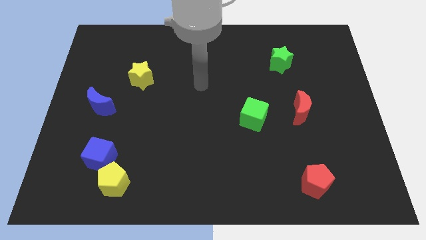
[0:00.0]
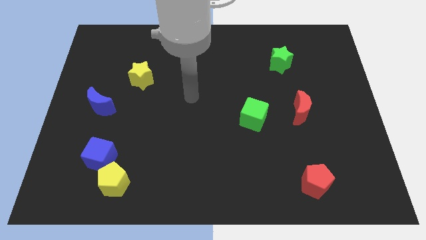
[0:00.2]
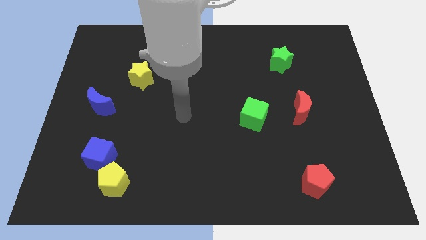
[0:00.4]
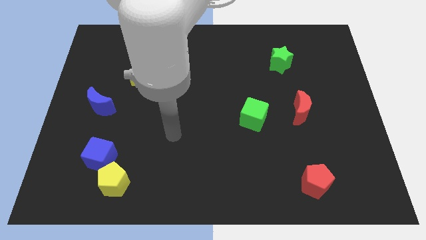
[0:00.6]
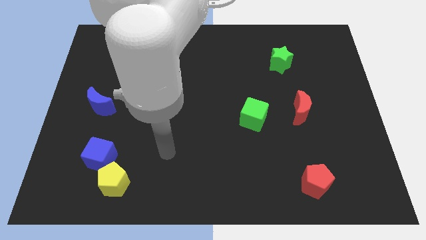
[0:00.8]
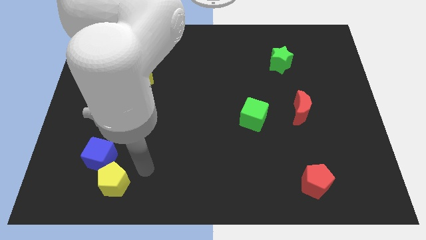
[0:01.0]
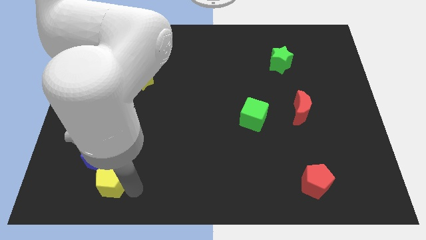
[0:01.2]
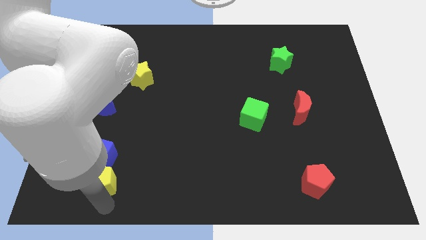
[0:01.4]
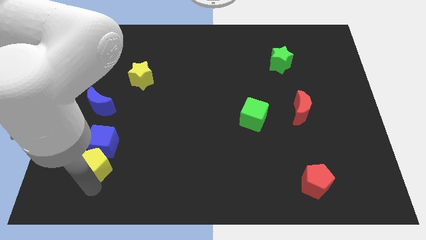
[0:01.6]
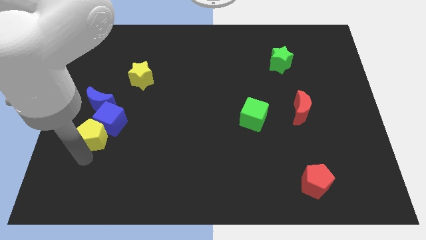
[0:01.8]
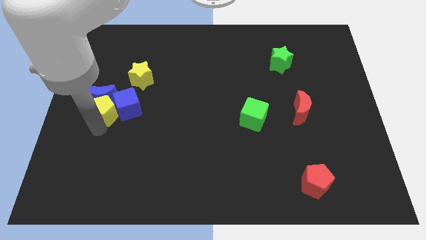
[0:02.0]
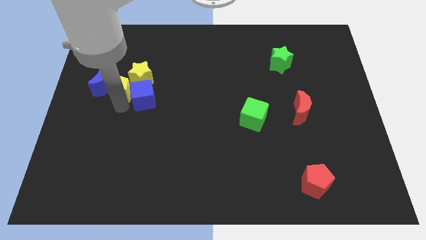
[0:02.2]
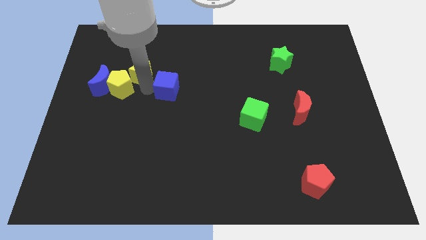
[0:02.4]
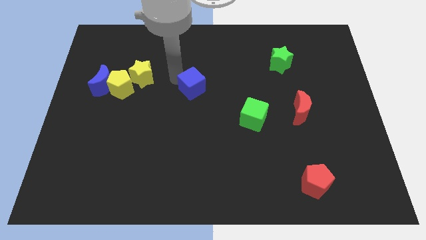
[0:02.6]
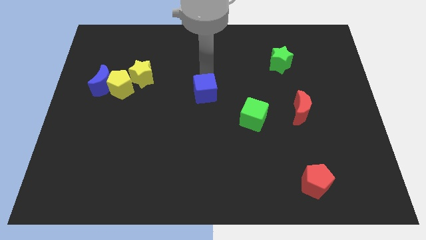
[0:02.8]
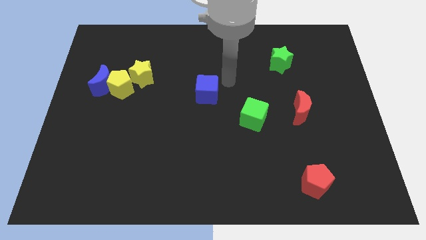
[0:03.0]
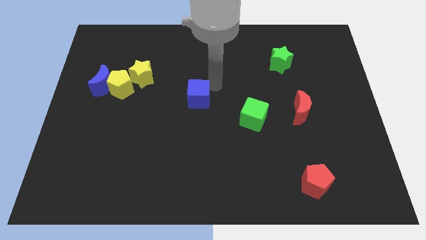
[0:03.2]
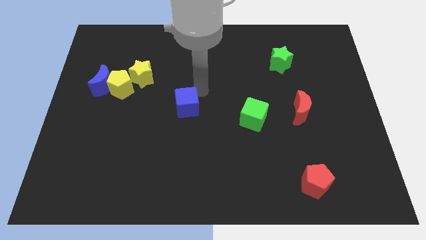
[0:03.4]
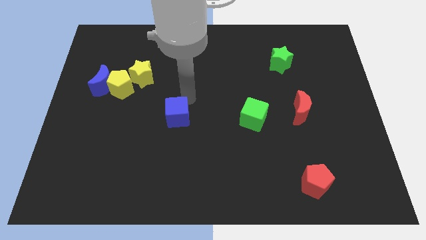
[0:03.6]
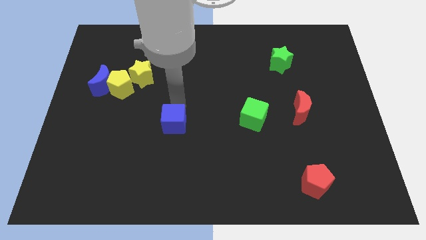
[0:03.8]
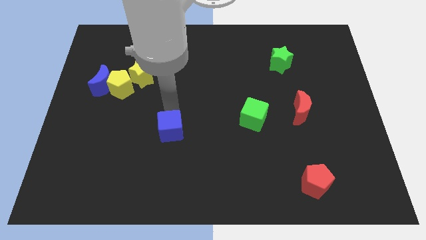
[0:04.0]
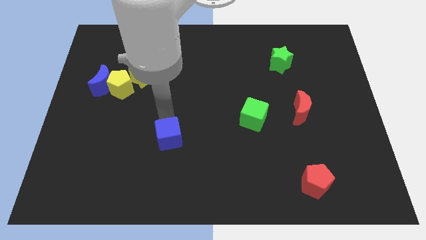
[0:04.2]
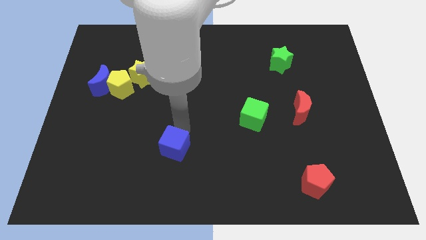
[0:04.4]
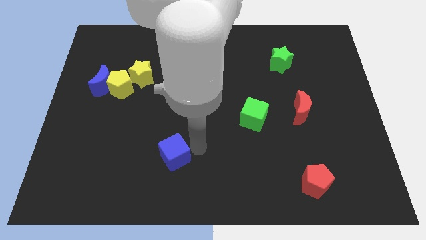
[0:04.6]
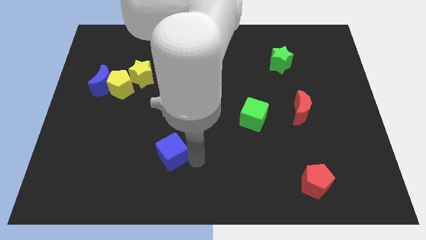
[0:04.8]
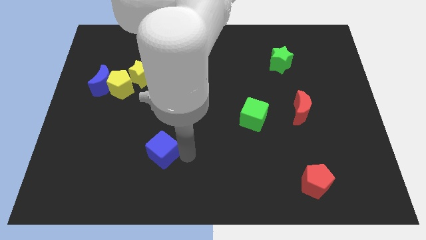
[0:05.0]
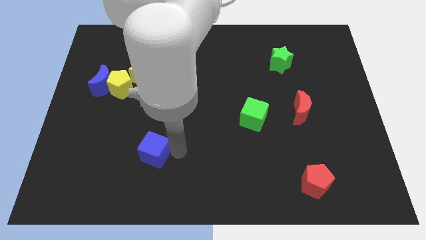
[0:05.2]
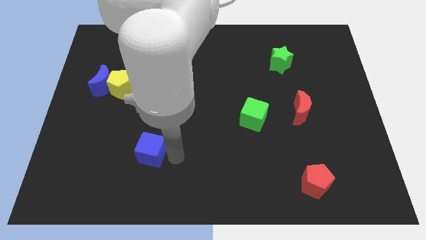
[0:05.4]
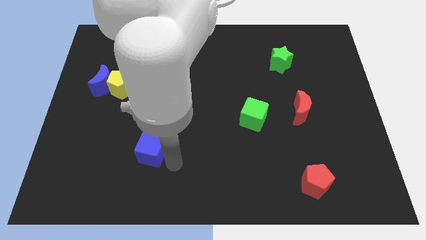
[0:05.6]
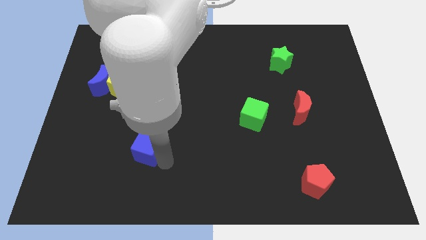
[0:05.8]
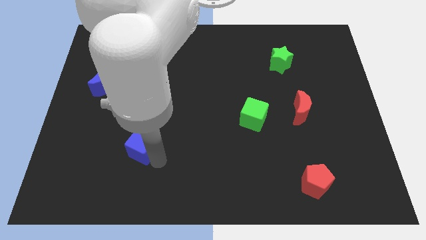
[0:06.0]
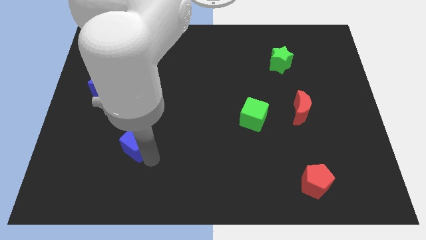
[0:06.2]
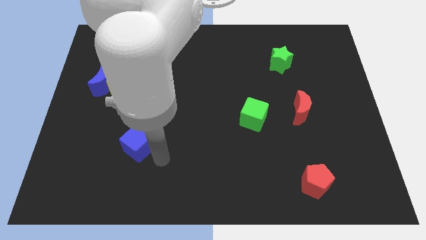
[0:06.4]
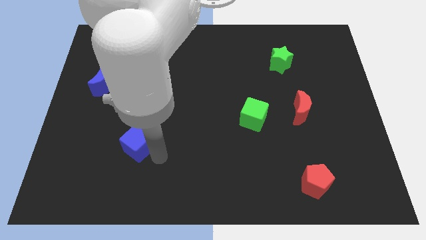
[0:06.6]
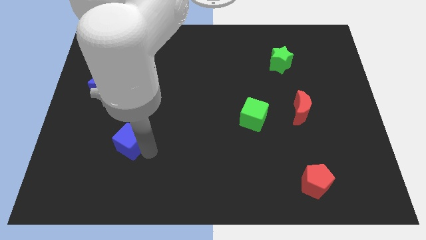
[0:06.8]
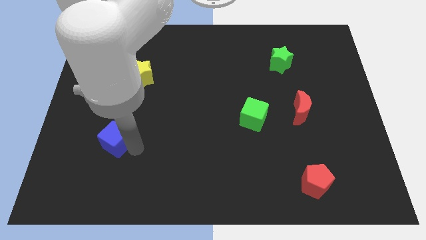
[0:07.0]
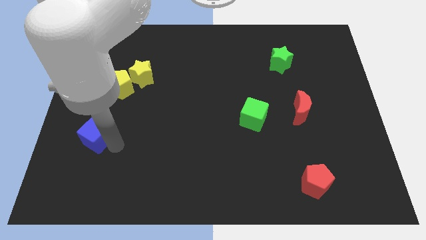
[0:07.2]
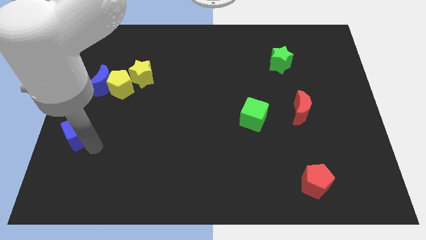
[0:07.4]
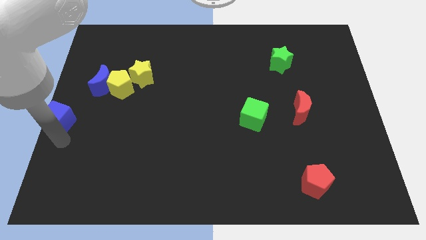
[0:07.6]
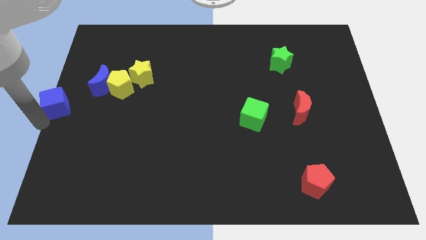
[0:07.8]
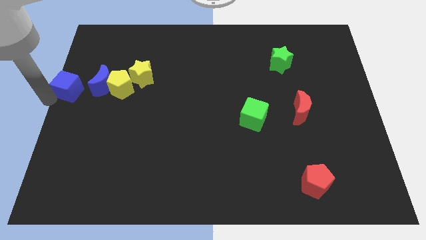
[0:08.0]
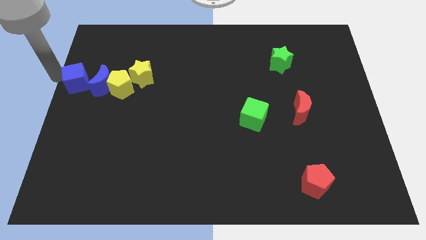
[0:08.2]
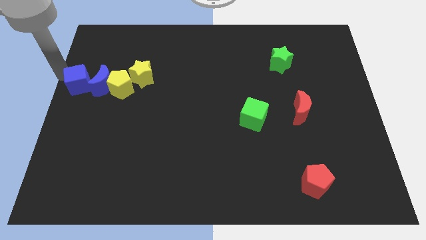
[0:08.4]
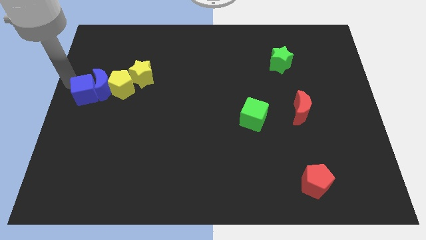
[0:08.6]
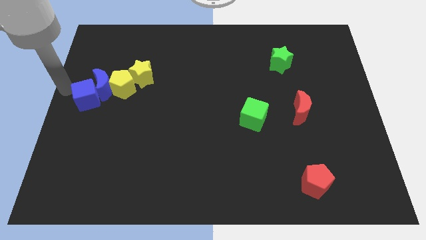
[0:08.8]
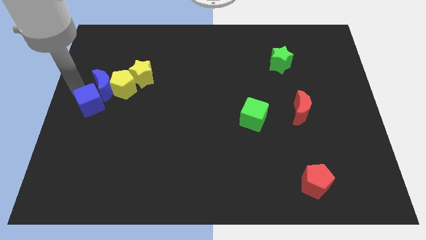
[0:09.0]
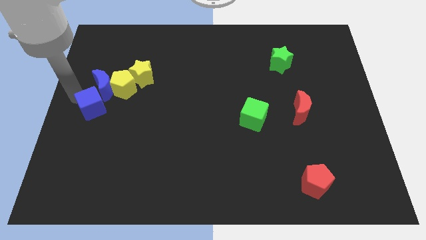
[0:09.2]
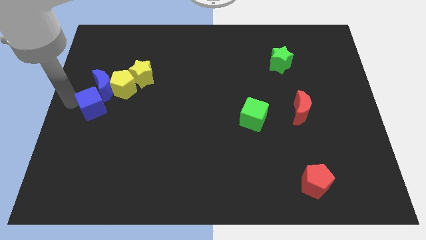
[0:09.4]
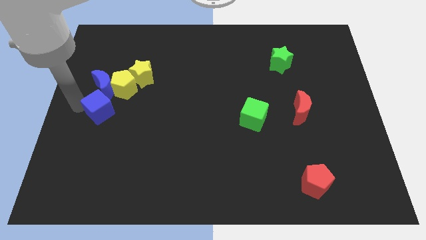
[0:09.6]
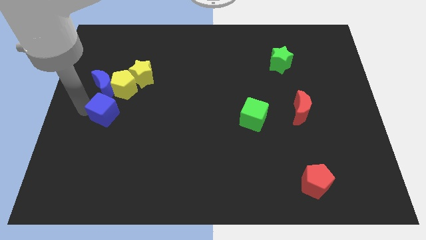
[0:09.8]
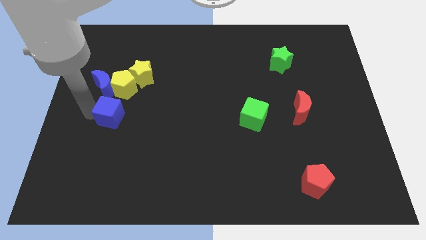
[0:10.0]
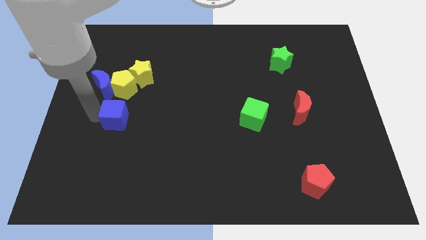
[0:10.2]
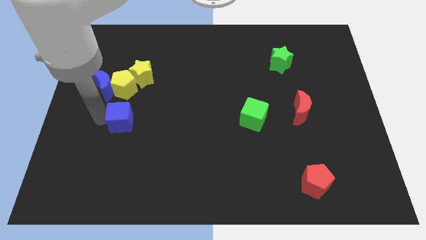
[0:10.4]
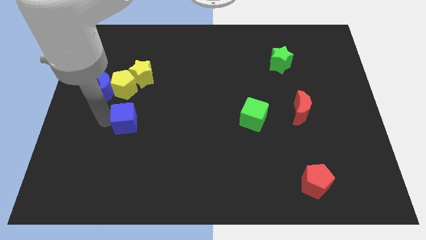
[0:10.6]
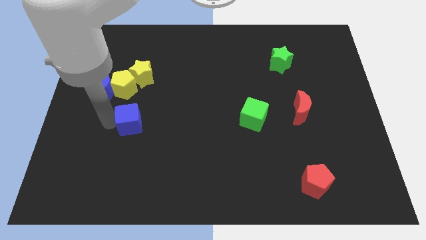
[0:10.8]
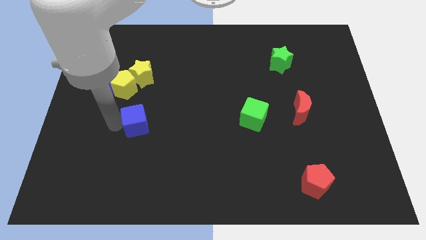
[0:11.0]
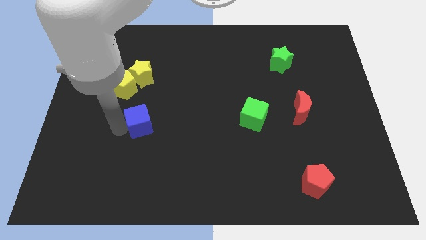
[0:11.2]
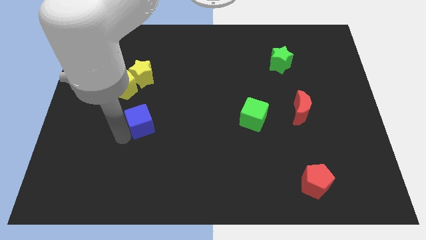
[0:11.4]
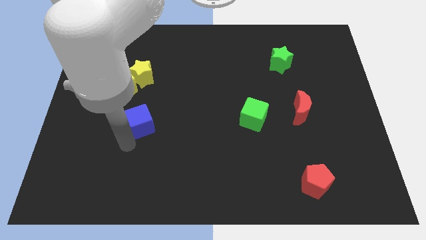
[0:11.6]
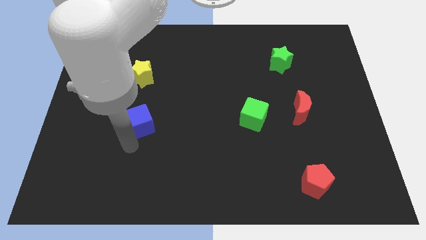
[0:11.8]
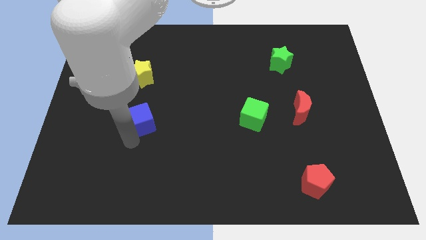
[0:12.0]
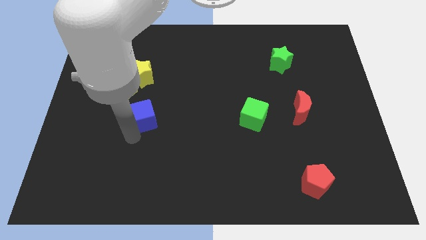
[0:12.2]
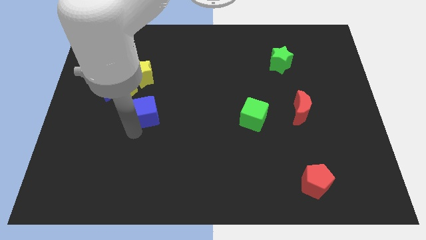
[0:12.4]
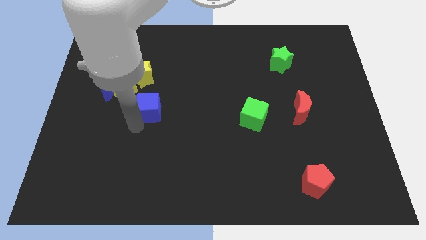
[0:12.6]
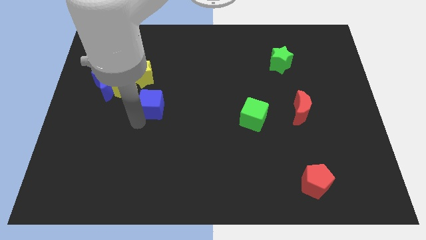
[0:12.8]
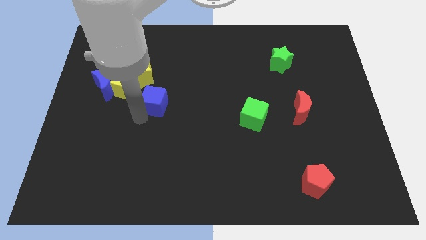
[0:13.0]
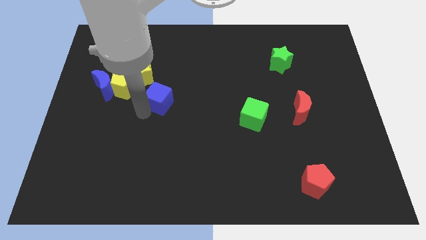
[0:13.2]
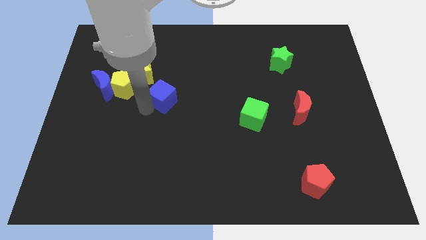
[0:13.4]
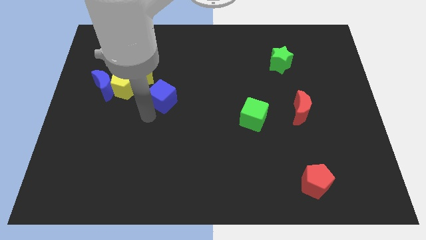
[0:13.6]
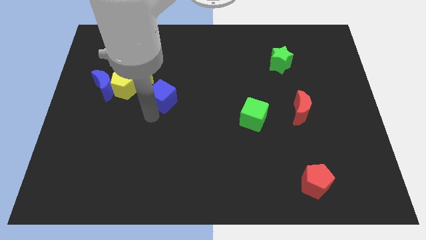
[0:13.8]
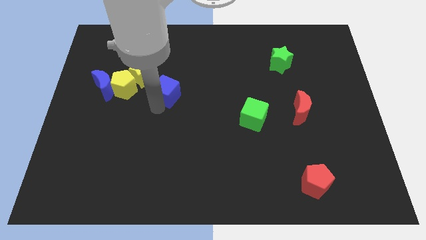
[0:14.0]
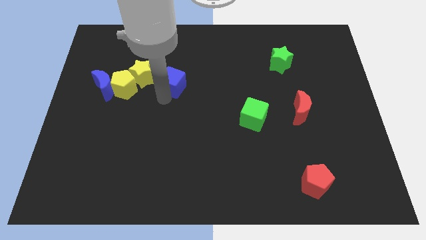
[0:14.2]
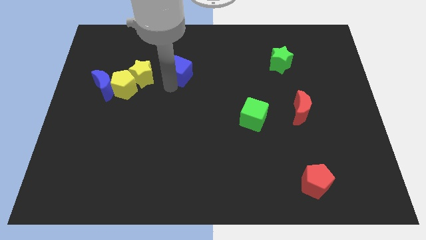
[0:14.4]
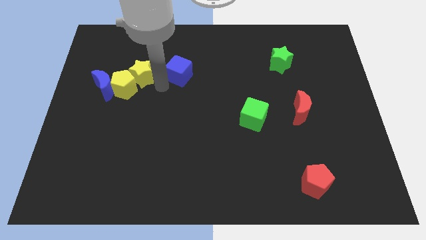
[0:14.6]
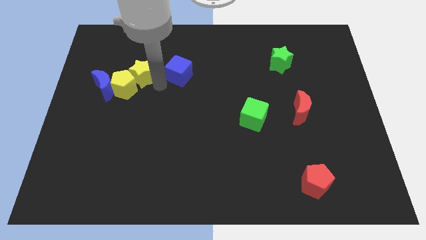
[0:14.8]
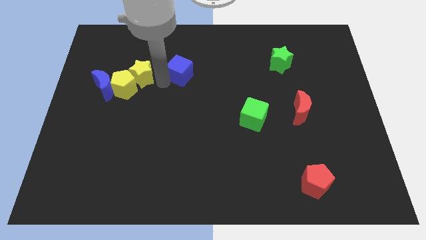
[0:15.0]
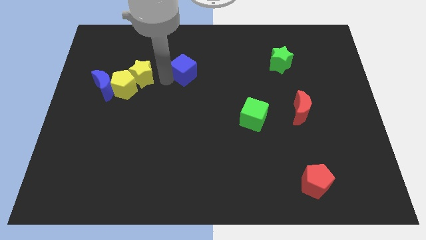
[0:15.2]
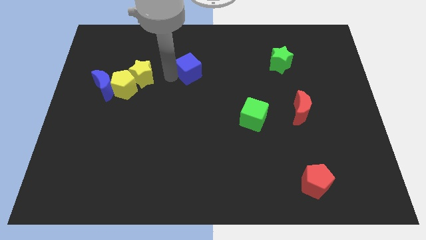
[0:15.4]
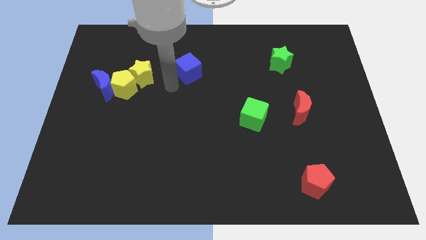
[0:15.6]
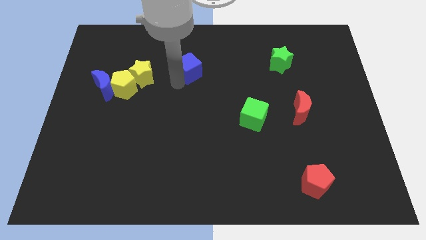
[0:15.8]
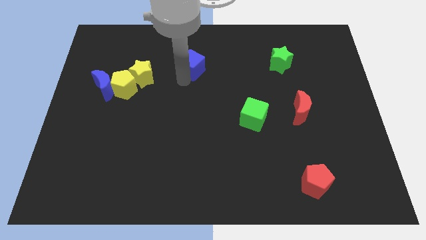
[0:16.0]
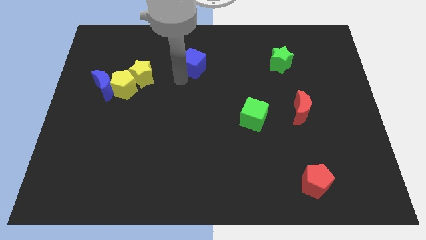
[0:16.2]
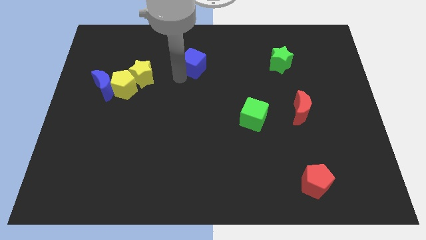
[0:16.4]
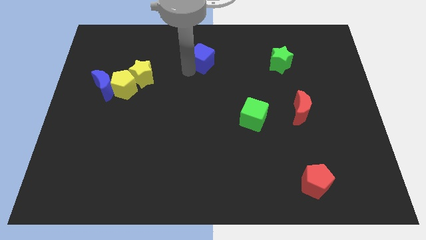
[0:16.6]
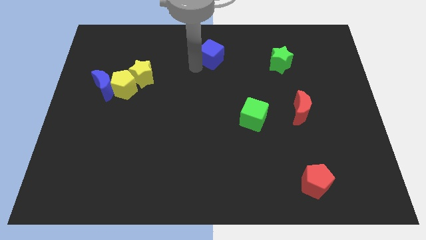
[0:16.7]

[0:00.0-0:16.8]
put the blue cube to the towards your base
